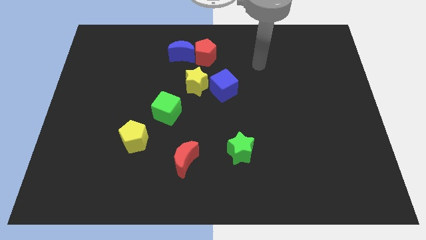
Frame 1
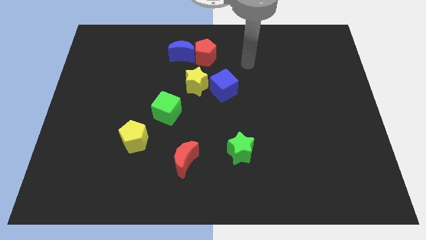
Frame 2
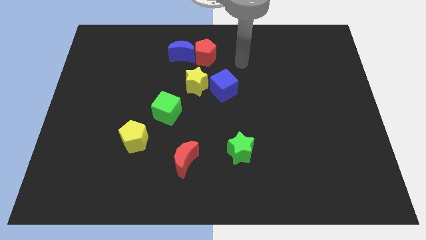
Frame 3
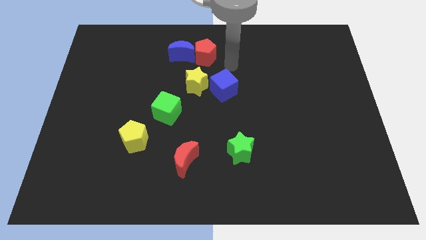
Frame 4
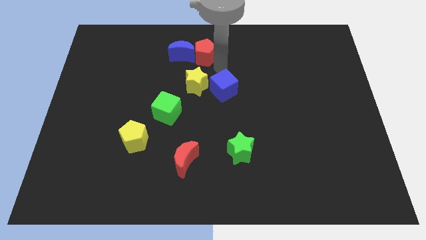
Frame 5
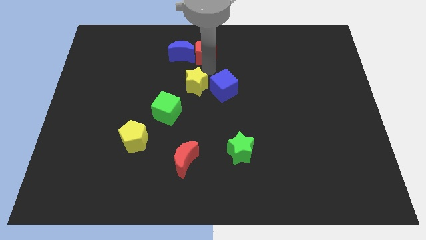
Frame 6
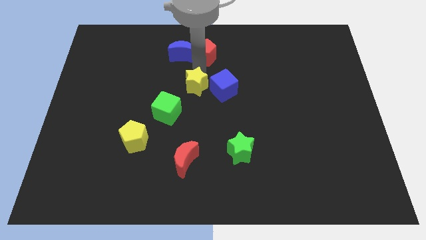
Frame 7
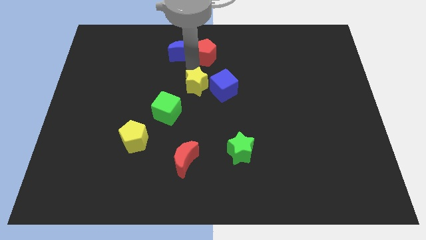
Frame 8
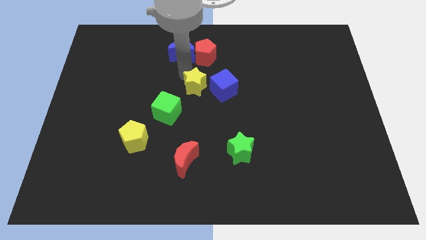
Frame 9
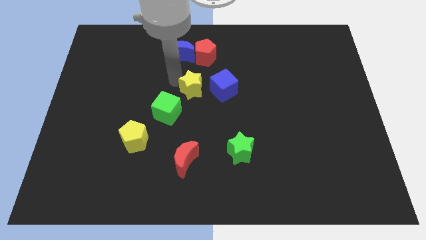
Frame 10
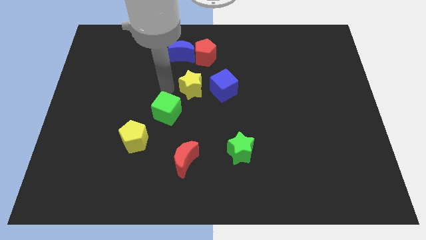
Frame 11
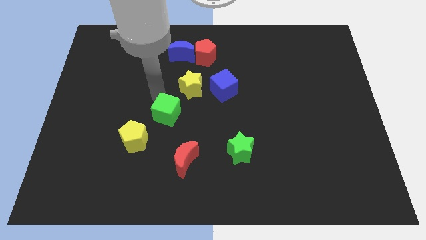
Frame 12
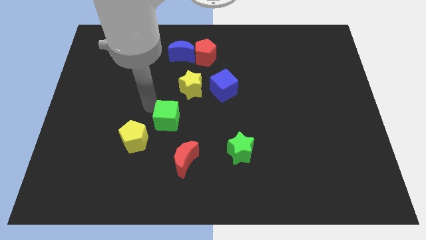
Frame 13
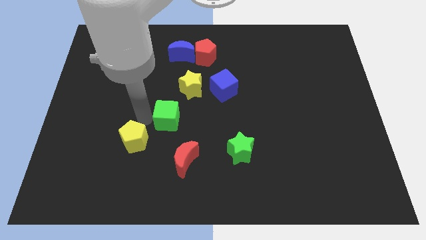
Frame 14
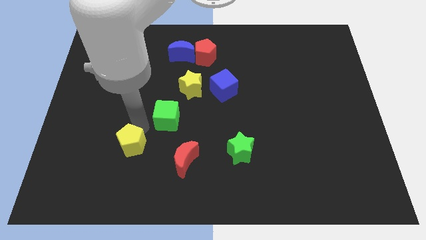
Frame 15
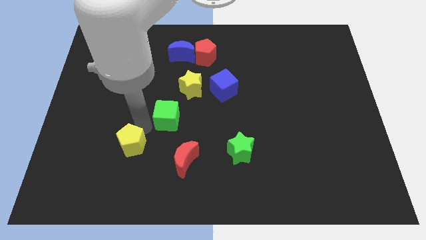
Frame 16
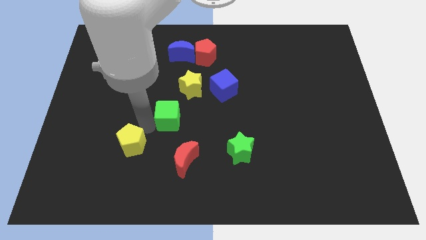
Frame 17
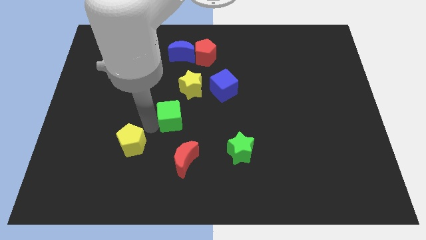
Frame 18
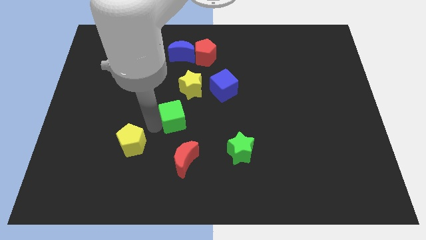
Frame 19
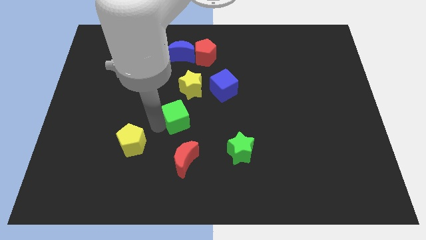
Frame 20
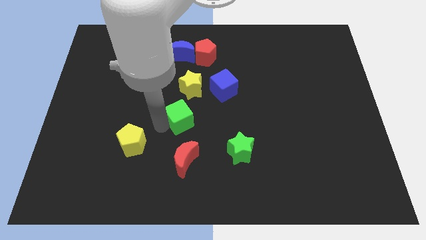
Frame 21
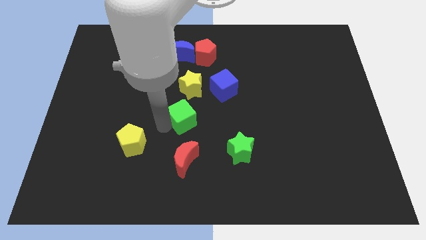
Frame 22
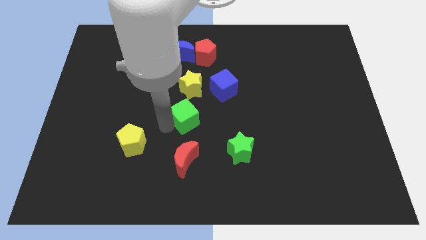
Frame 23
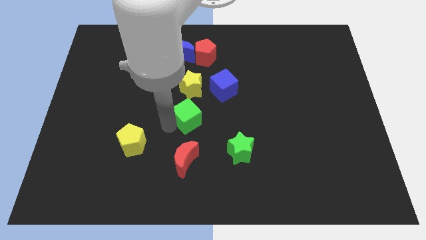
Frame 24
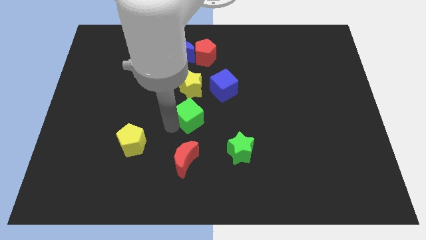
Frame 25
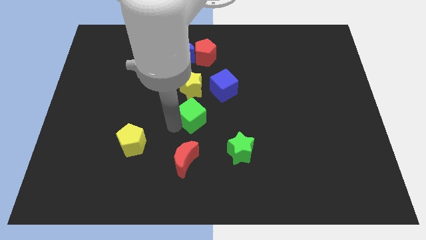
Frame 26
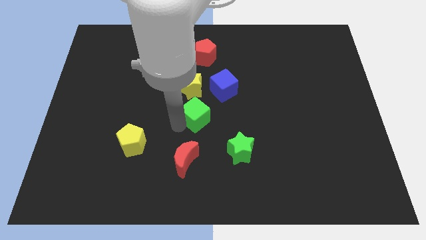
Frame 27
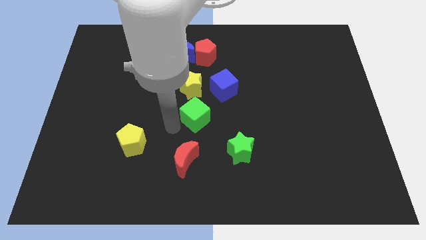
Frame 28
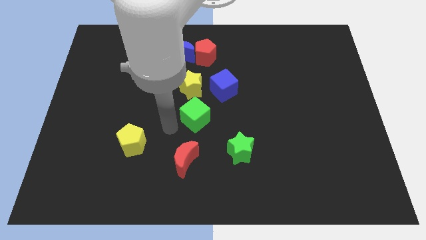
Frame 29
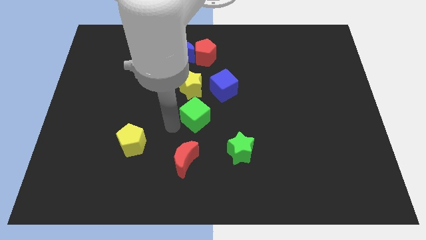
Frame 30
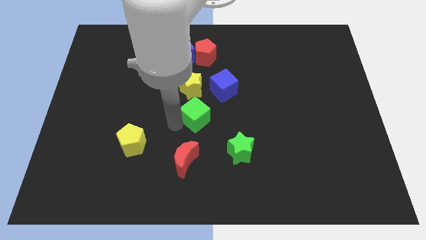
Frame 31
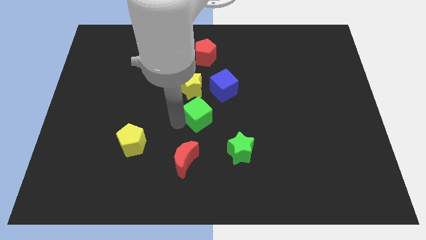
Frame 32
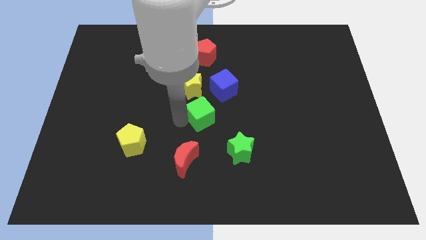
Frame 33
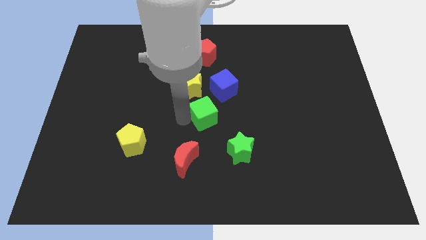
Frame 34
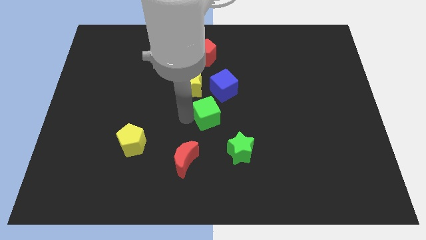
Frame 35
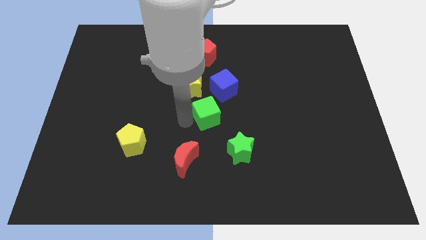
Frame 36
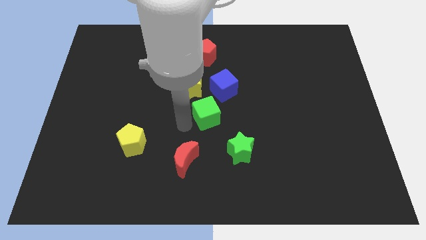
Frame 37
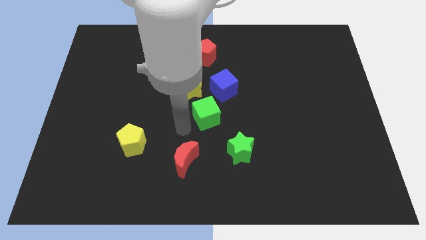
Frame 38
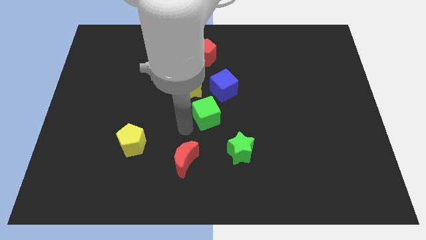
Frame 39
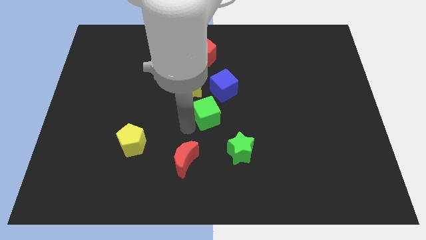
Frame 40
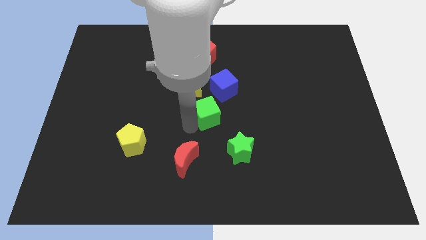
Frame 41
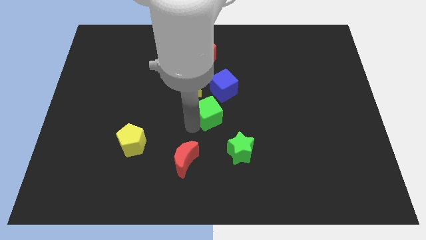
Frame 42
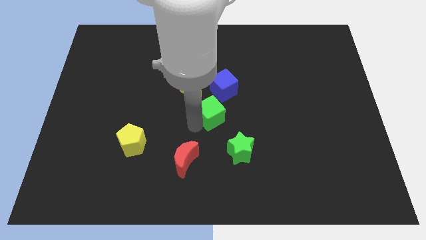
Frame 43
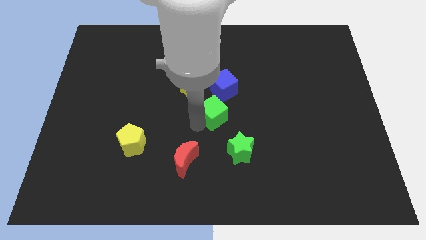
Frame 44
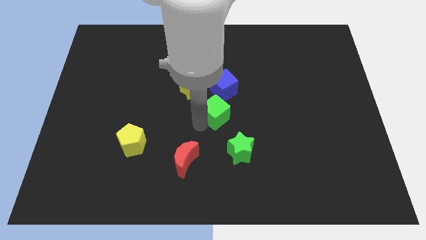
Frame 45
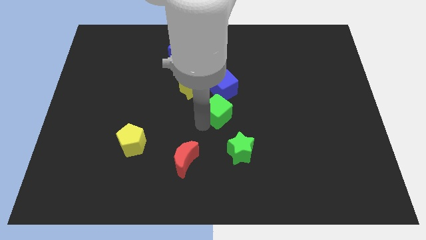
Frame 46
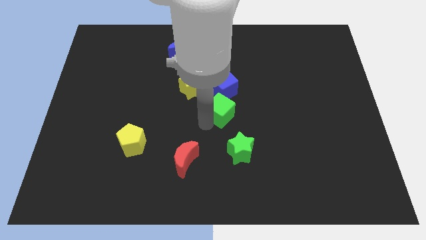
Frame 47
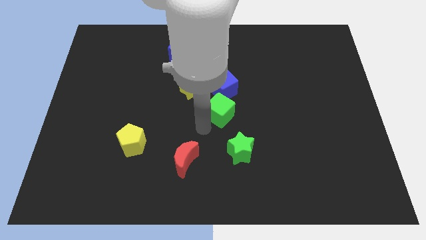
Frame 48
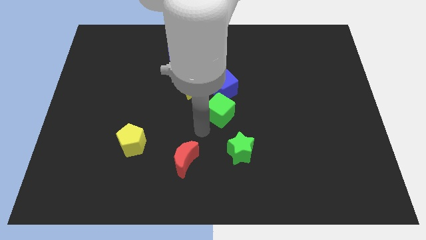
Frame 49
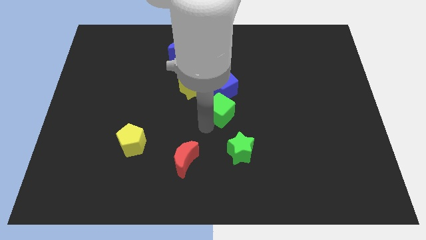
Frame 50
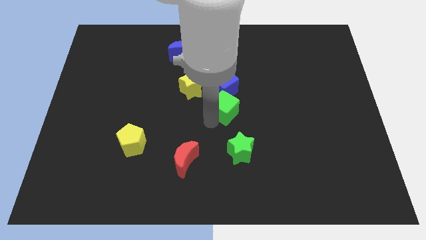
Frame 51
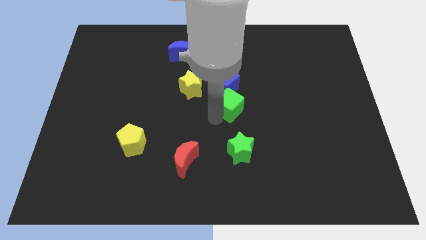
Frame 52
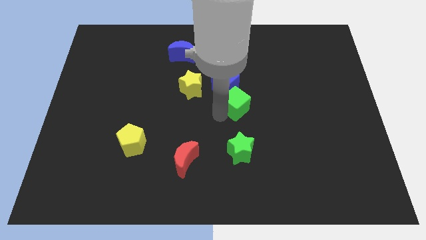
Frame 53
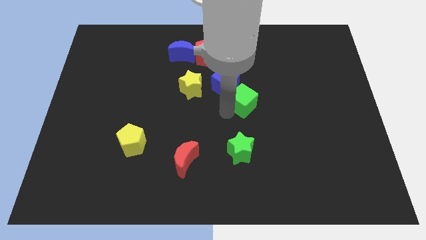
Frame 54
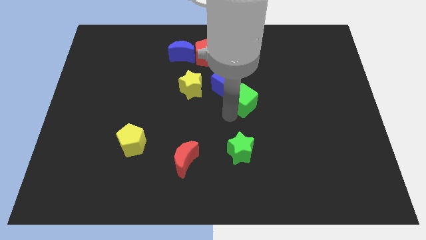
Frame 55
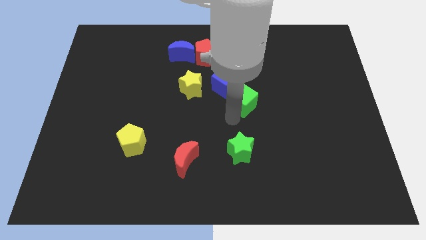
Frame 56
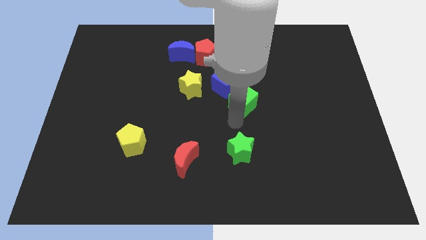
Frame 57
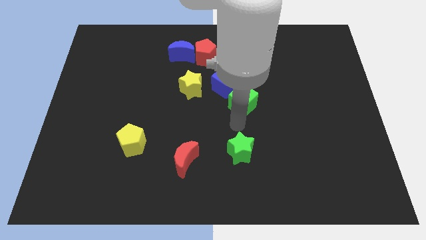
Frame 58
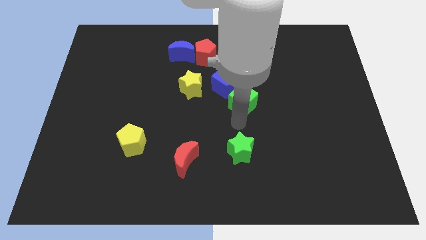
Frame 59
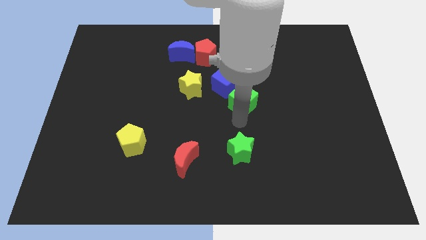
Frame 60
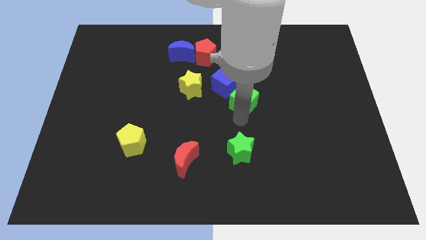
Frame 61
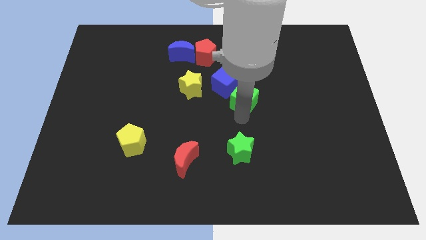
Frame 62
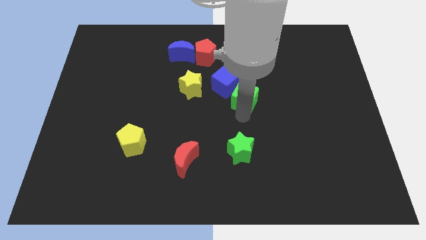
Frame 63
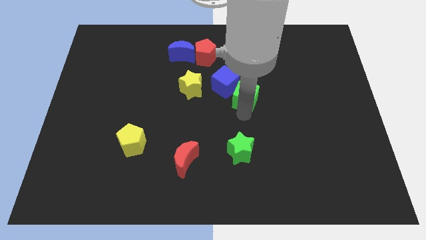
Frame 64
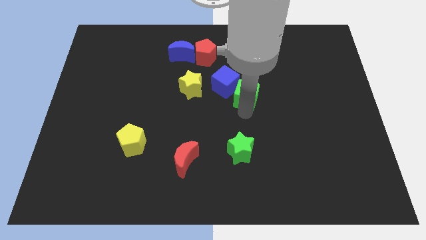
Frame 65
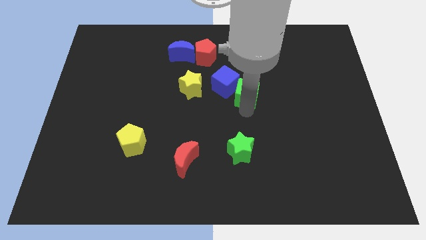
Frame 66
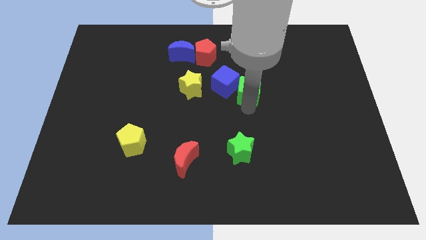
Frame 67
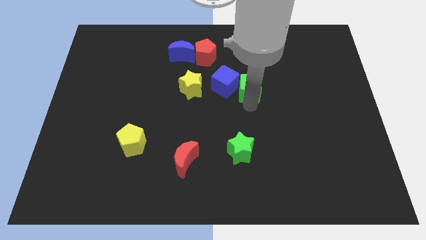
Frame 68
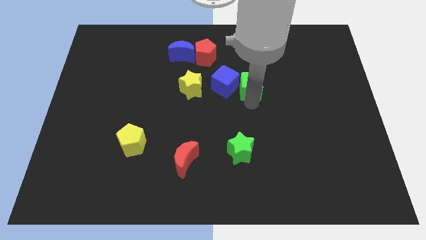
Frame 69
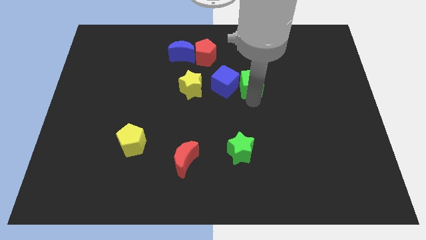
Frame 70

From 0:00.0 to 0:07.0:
move the green cube to the top right side of the blue cube
